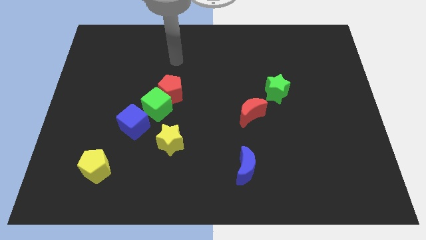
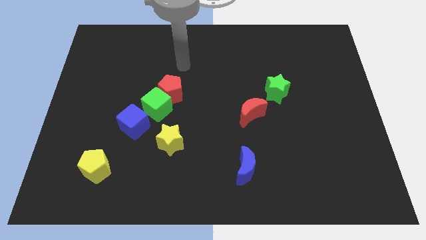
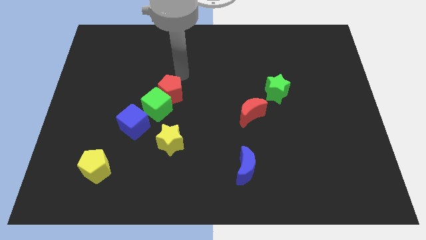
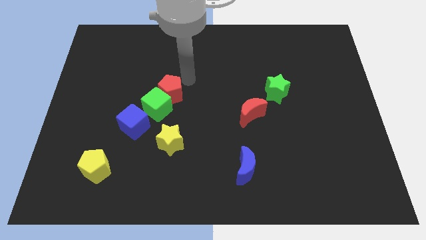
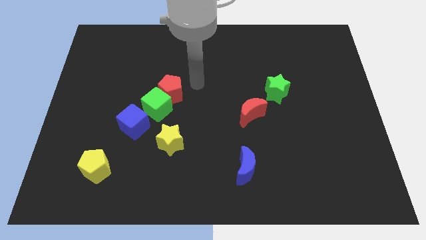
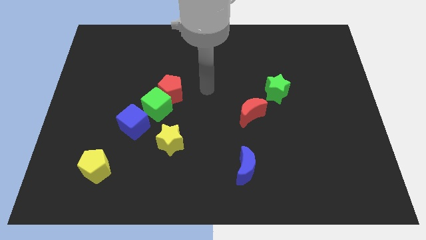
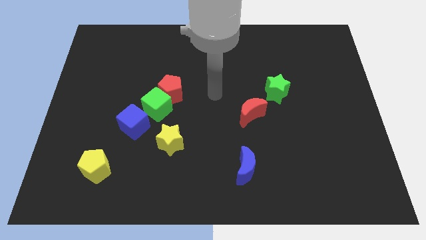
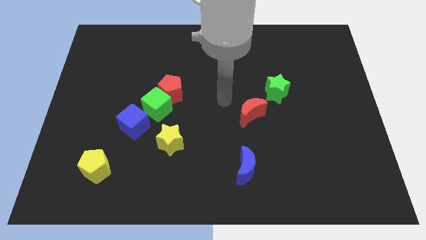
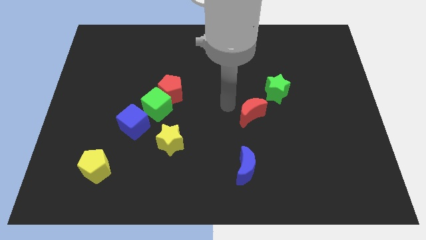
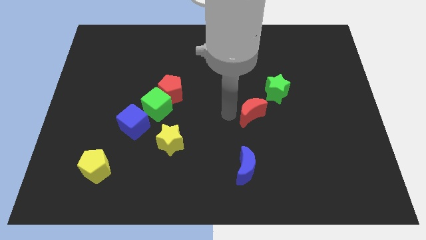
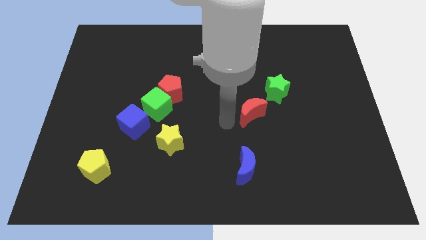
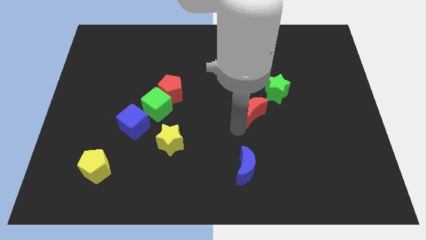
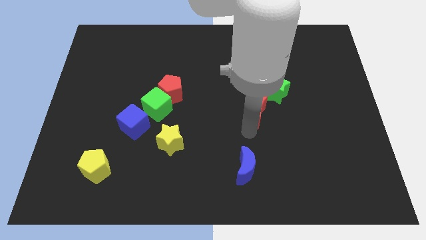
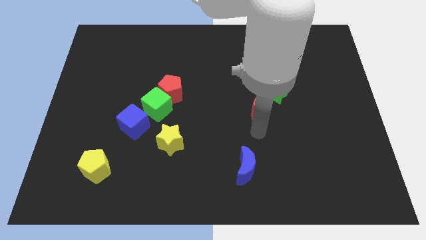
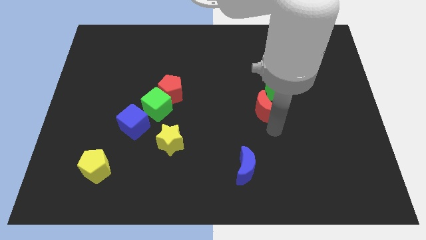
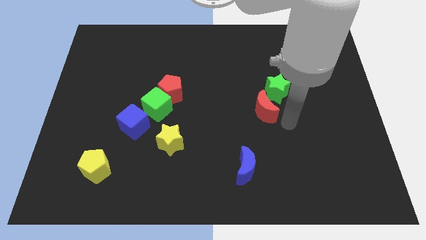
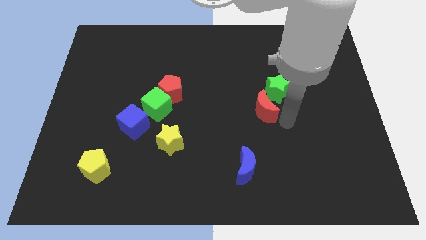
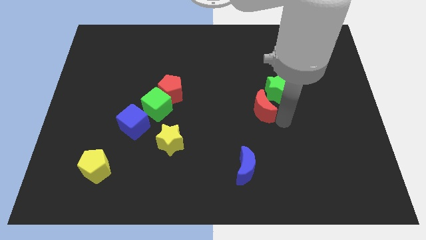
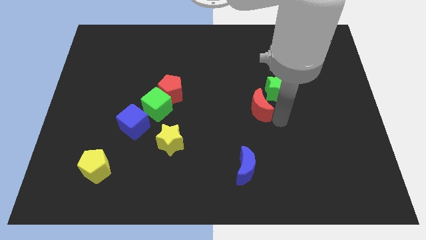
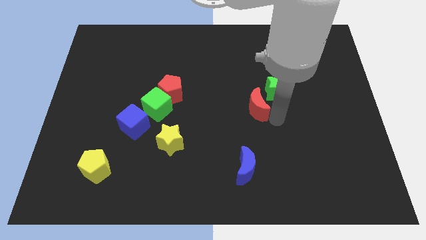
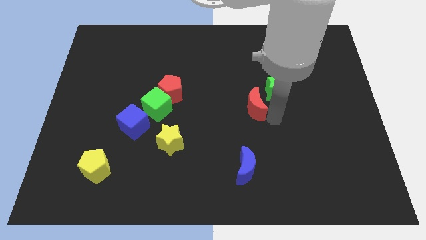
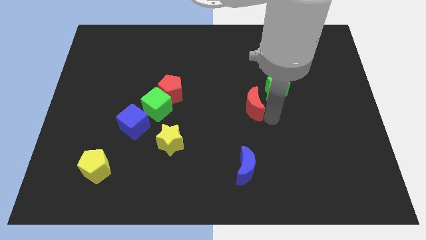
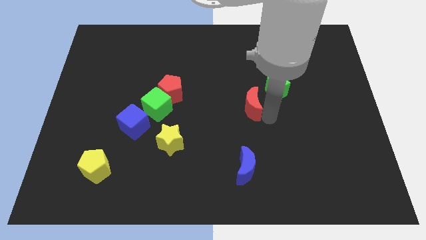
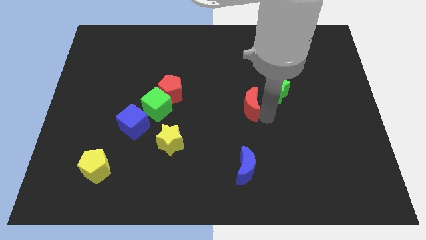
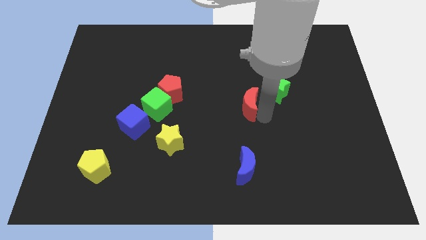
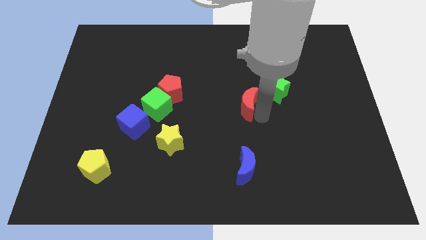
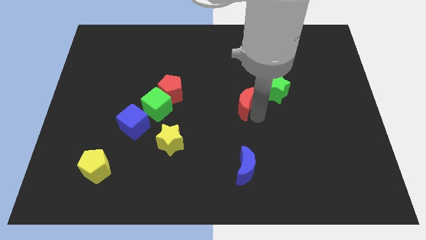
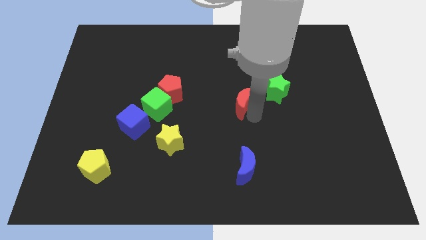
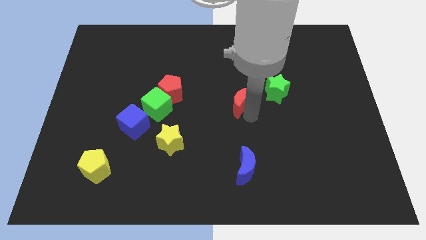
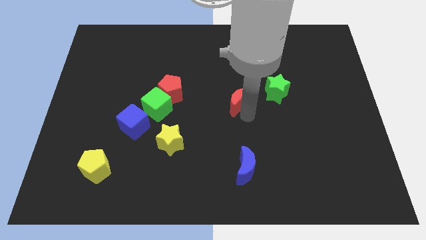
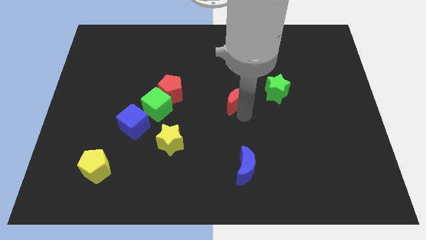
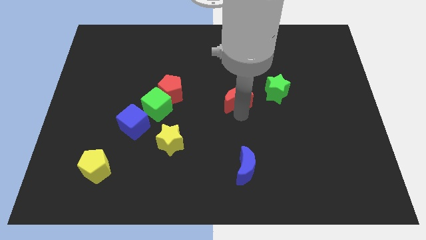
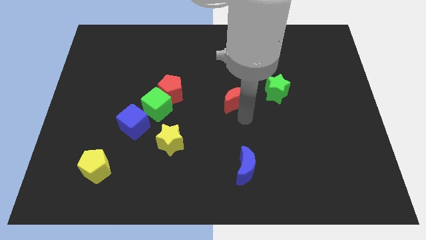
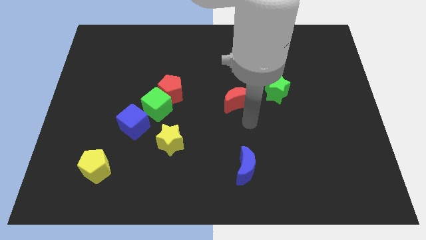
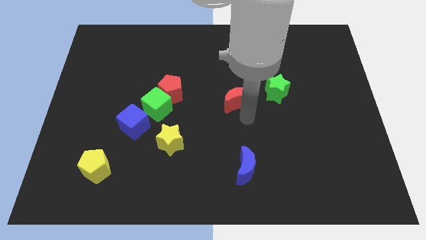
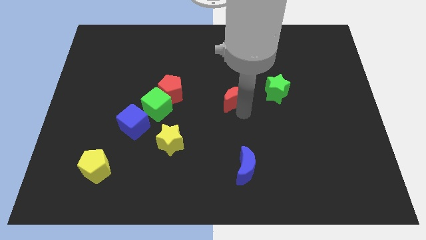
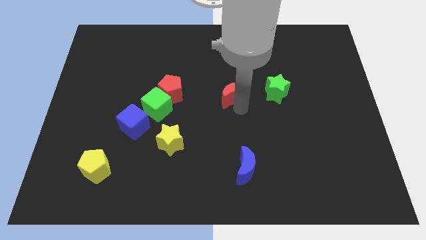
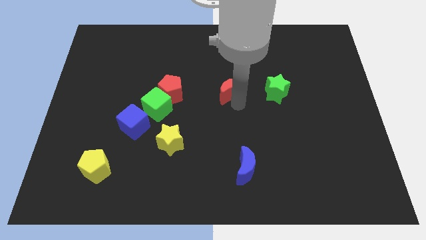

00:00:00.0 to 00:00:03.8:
slightly slide the red moon up and then left

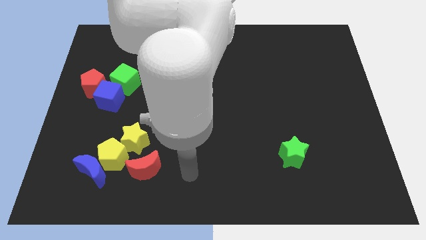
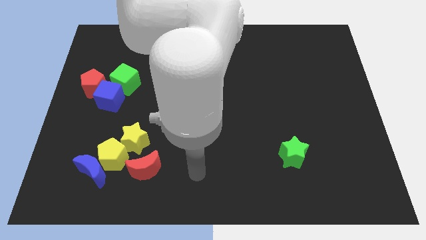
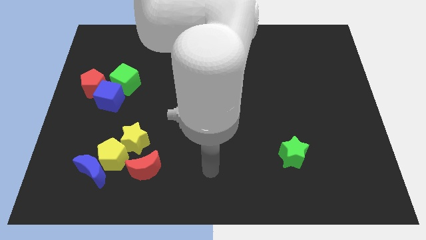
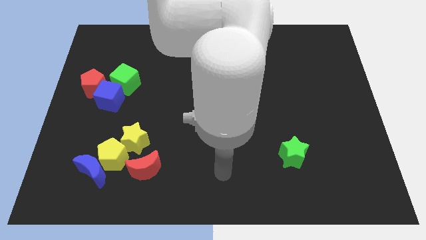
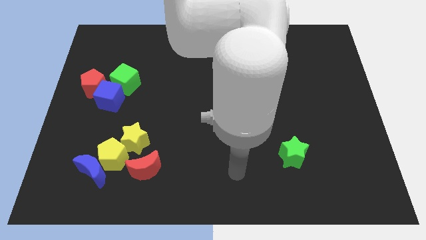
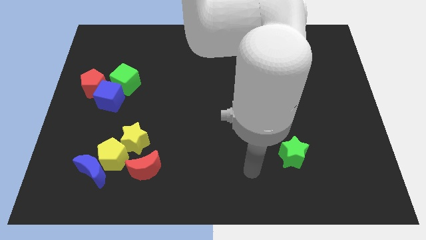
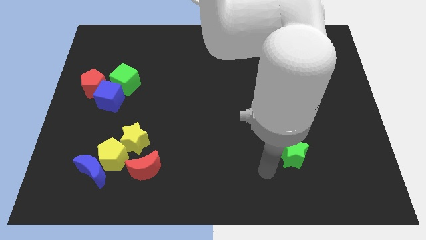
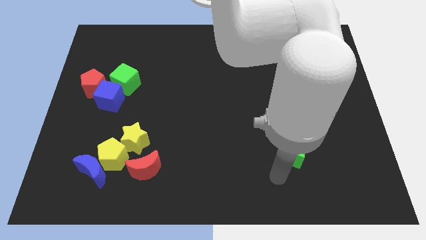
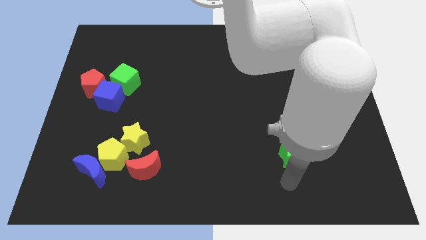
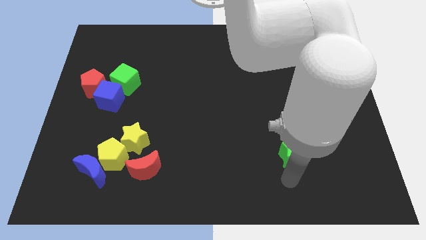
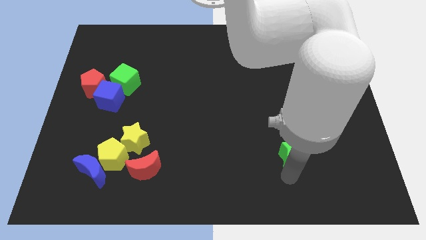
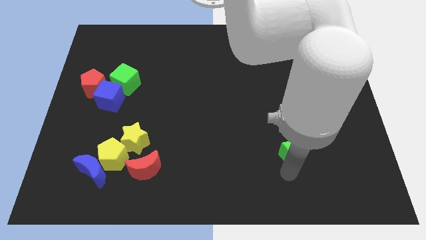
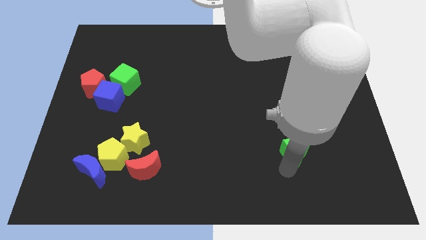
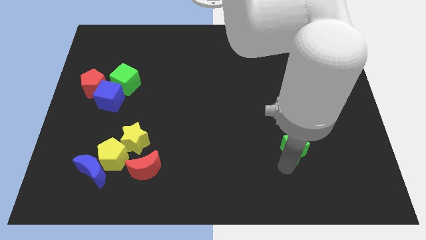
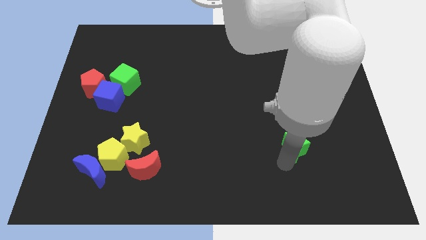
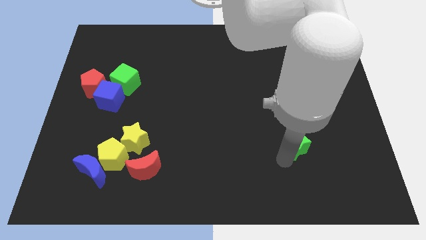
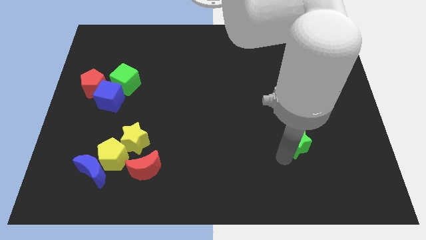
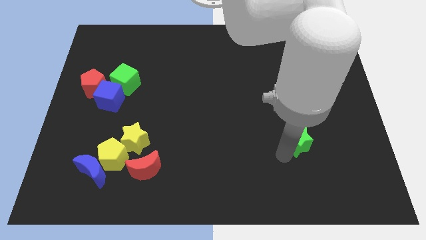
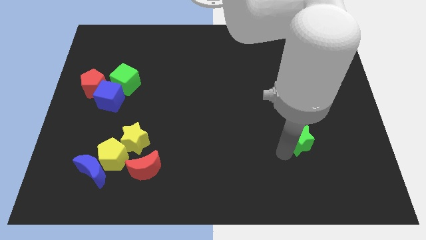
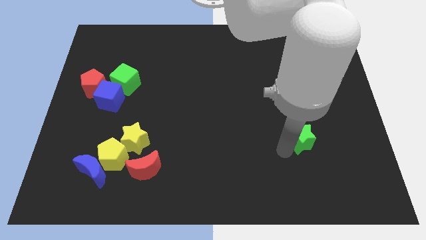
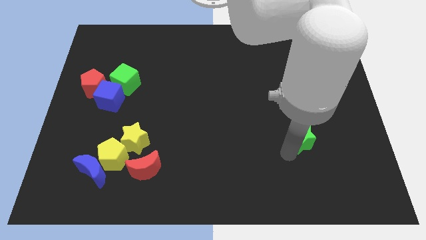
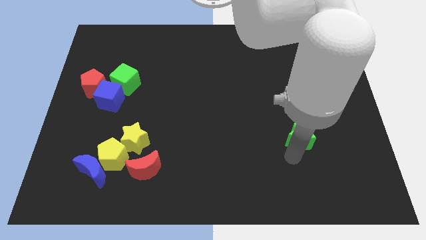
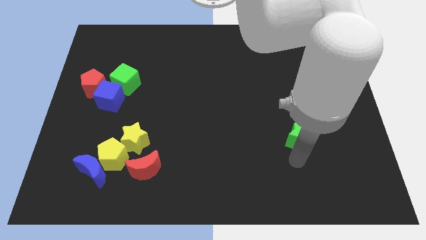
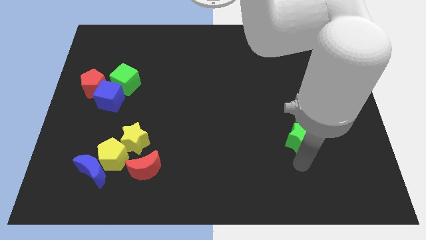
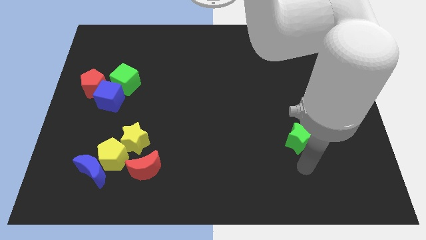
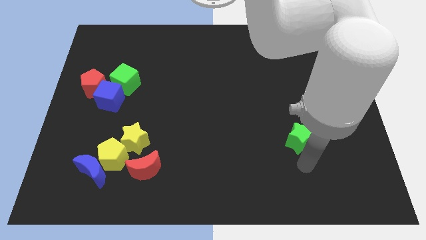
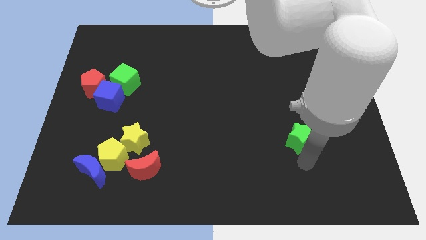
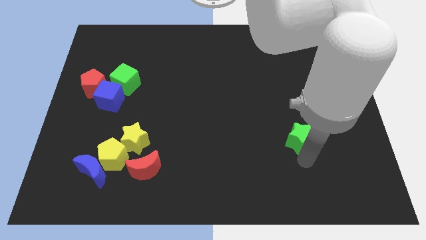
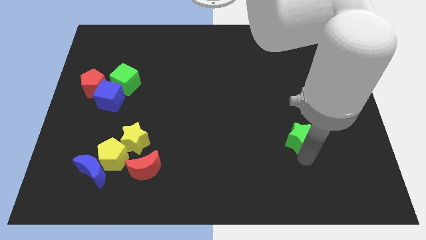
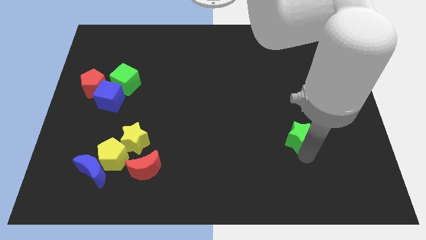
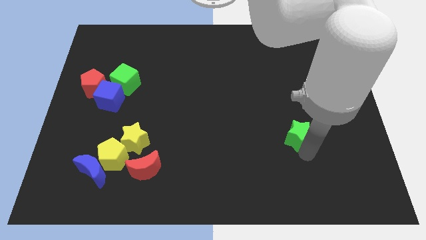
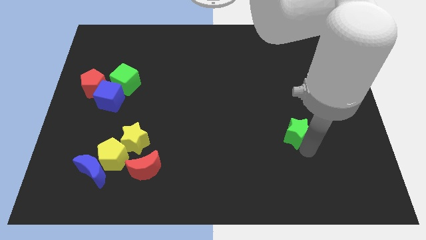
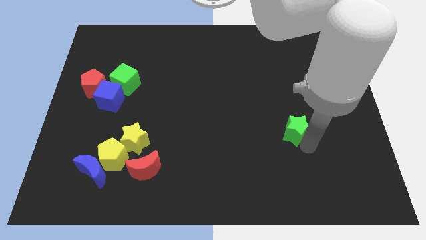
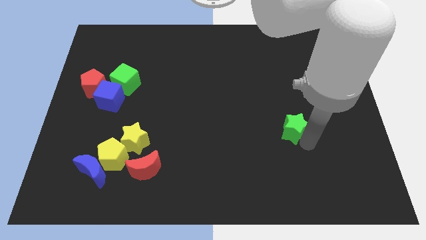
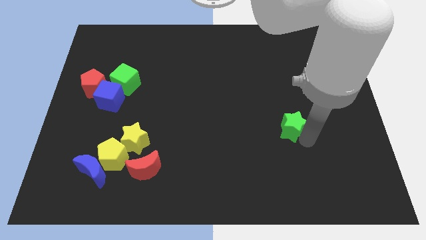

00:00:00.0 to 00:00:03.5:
push the green star upwards slightly

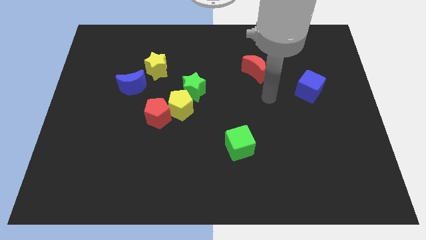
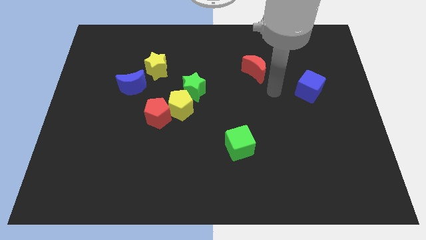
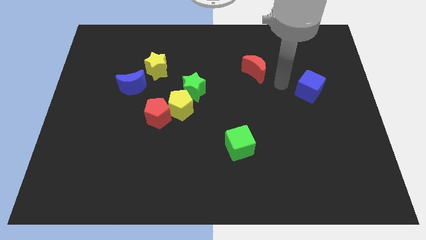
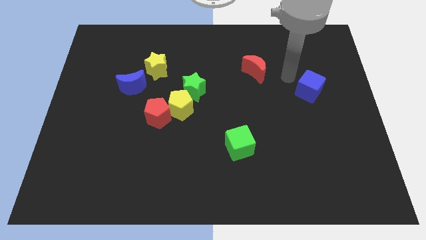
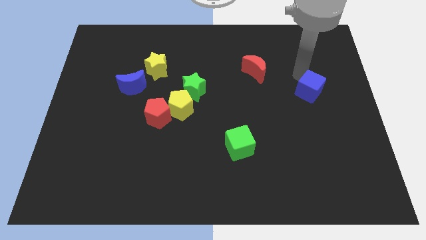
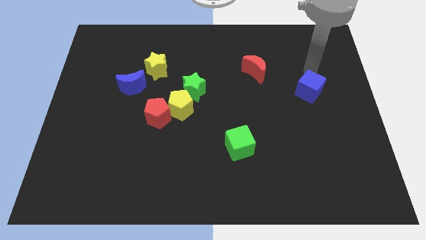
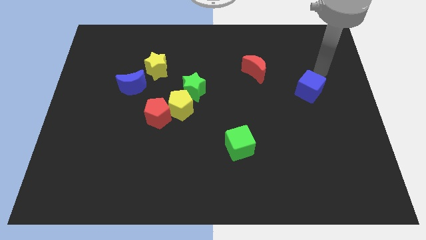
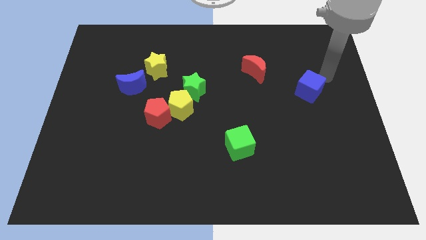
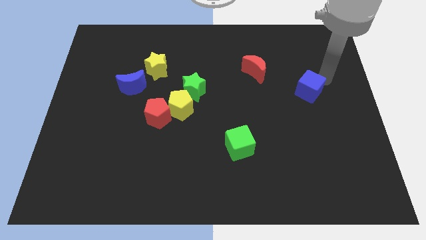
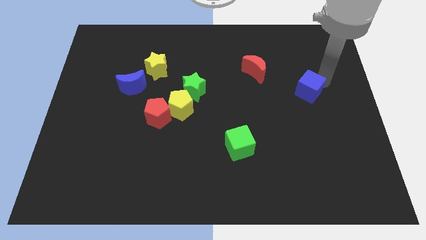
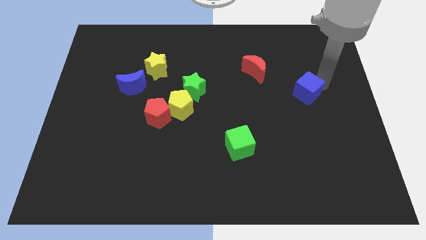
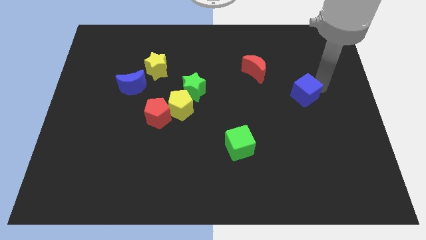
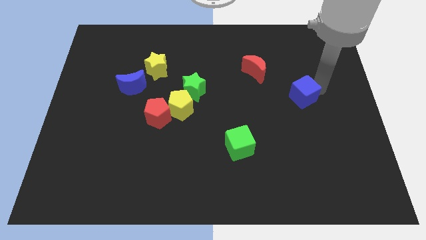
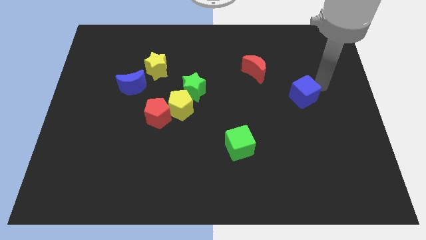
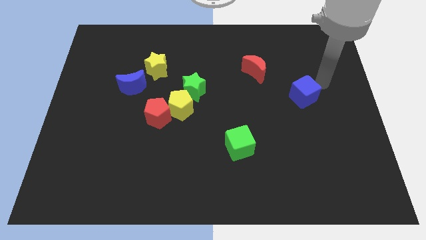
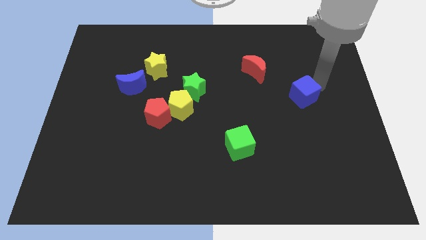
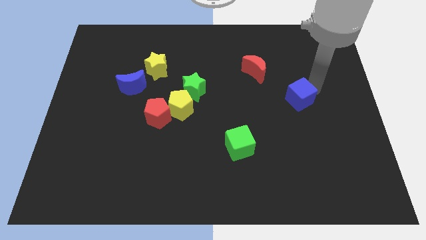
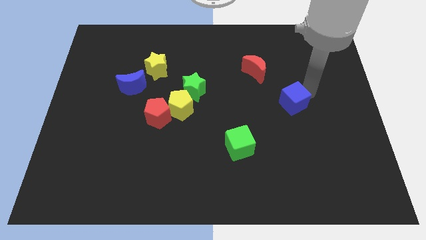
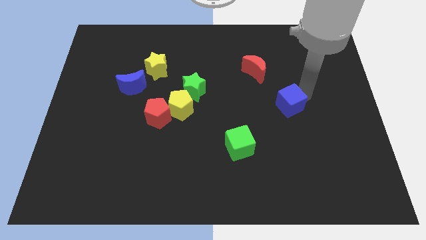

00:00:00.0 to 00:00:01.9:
slide the blue cube somewhat down and left
